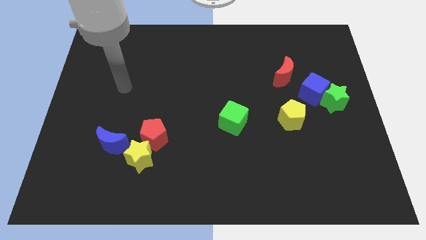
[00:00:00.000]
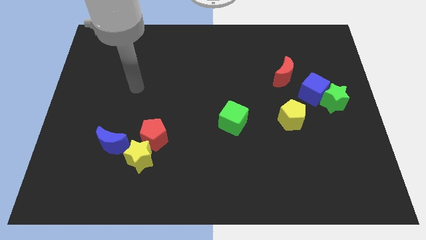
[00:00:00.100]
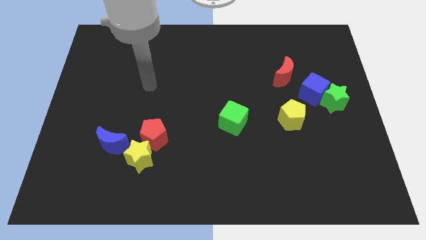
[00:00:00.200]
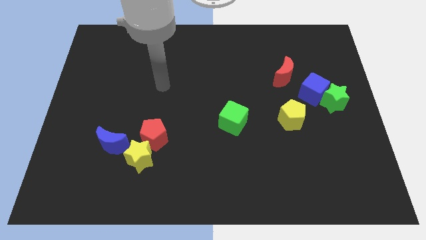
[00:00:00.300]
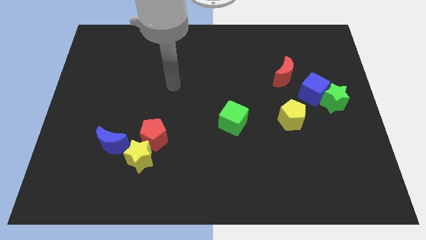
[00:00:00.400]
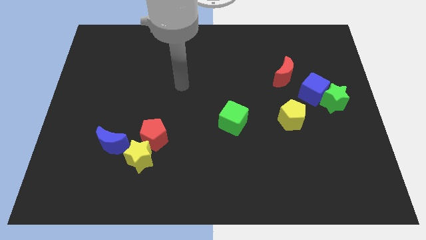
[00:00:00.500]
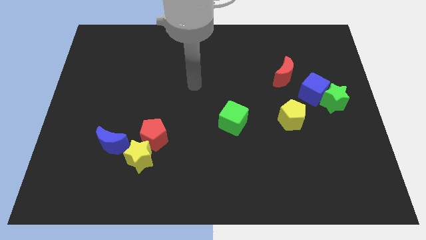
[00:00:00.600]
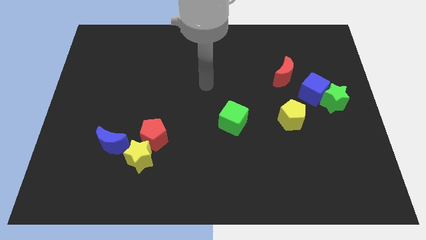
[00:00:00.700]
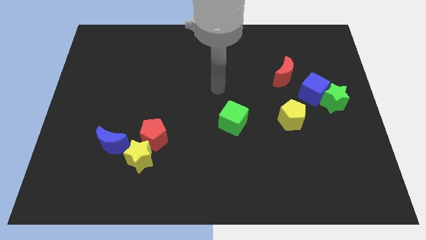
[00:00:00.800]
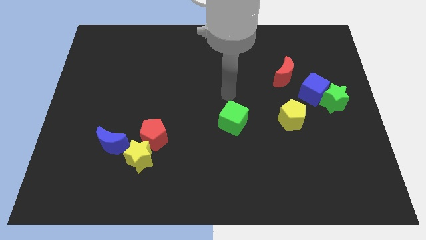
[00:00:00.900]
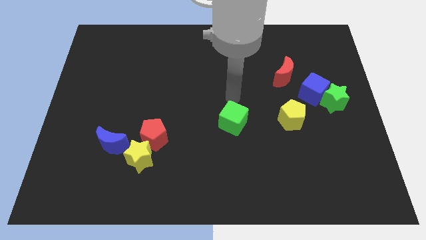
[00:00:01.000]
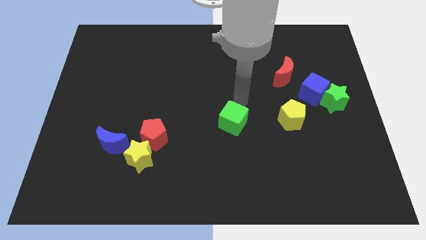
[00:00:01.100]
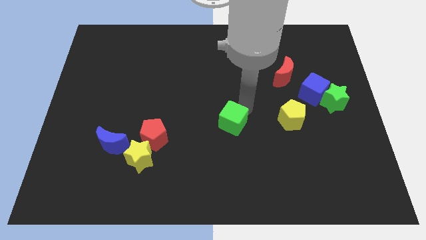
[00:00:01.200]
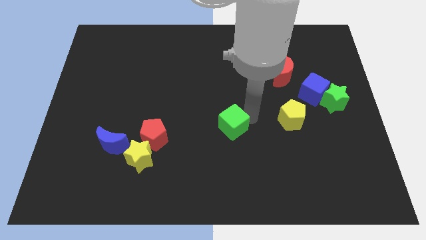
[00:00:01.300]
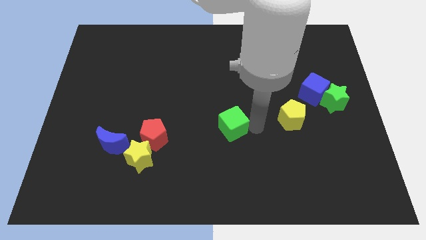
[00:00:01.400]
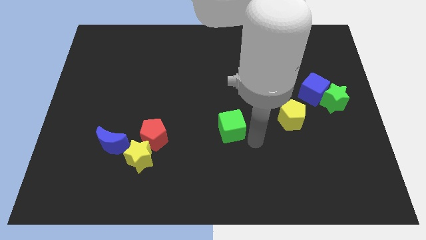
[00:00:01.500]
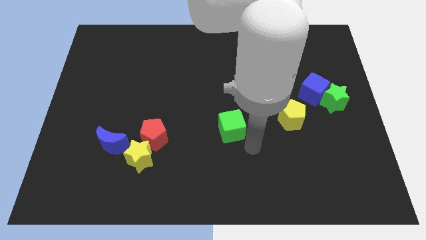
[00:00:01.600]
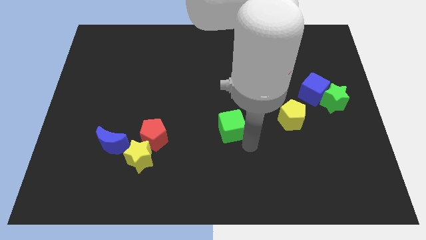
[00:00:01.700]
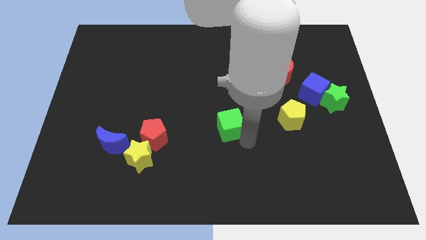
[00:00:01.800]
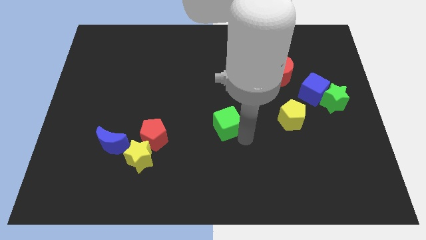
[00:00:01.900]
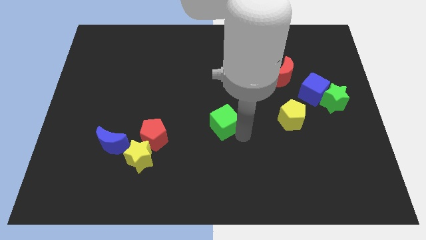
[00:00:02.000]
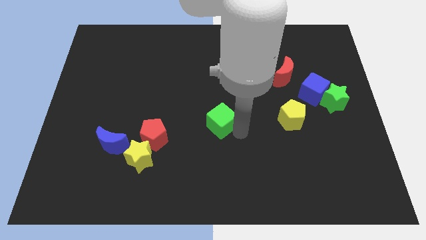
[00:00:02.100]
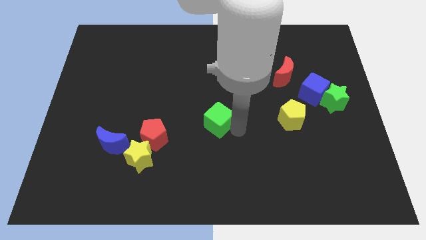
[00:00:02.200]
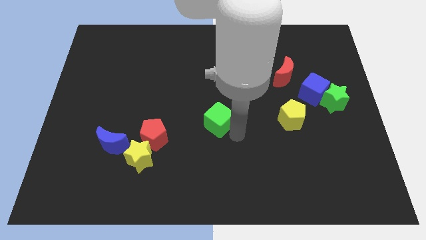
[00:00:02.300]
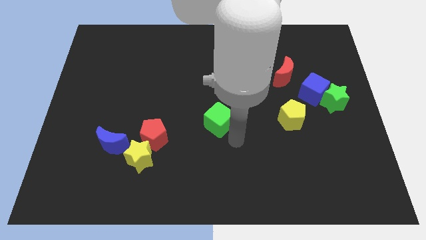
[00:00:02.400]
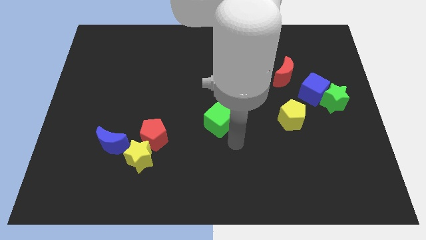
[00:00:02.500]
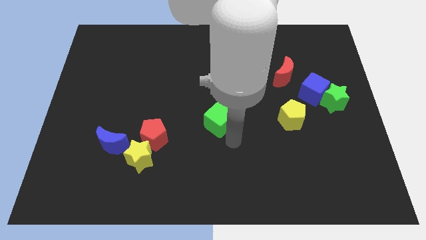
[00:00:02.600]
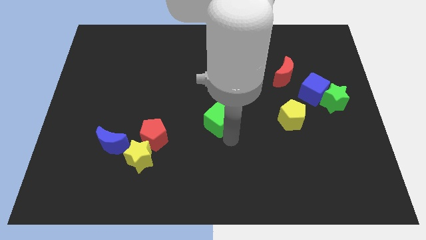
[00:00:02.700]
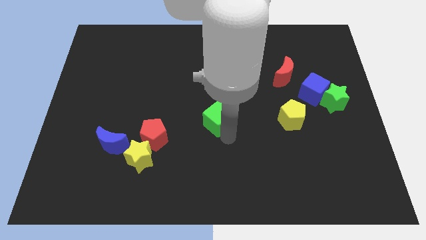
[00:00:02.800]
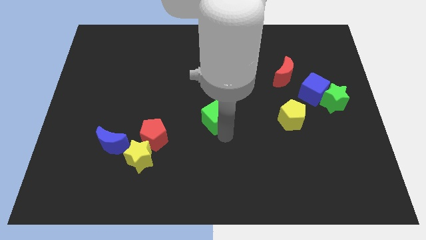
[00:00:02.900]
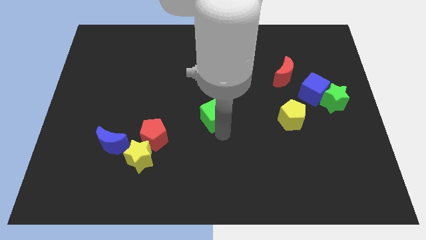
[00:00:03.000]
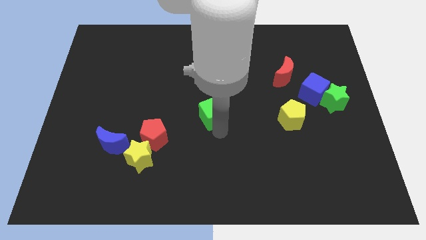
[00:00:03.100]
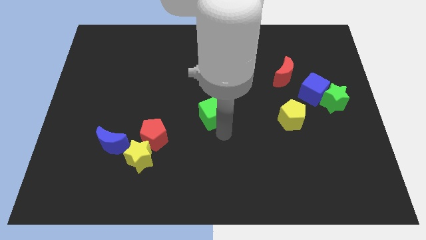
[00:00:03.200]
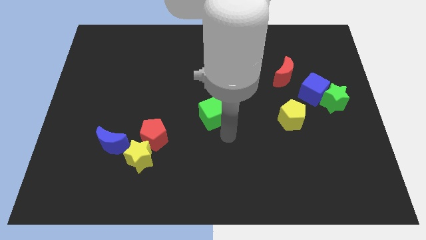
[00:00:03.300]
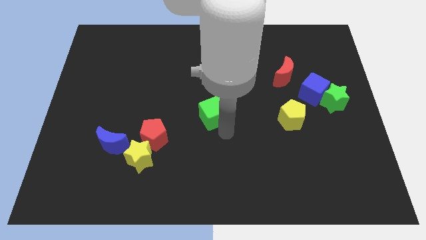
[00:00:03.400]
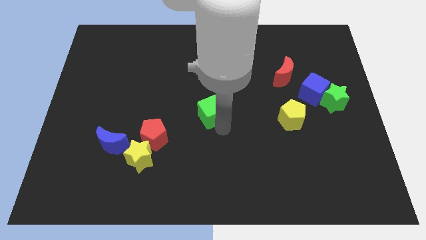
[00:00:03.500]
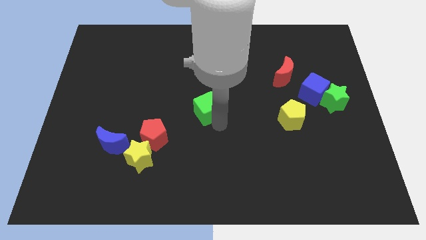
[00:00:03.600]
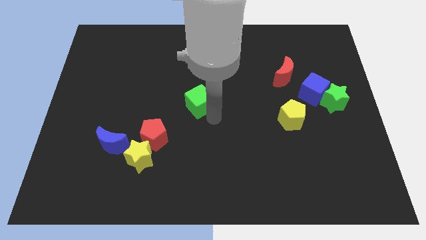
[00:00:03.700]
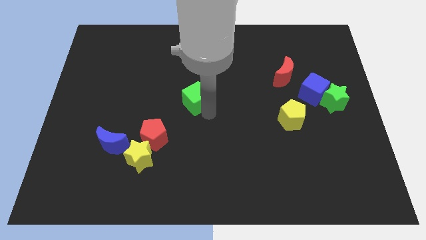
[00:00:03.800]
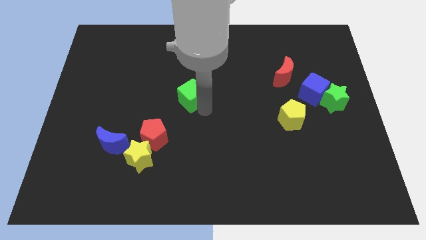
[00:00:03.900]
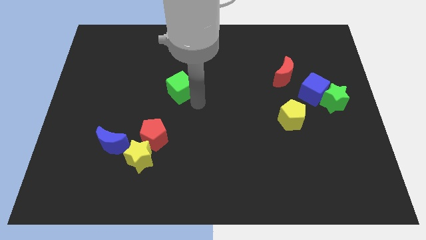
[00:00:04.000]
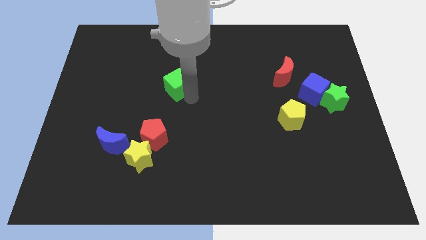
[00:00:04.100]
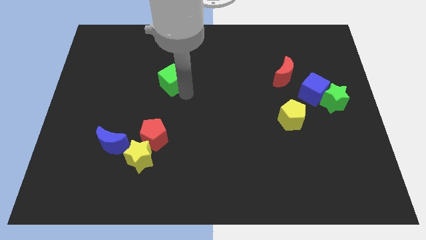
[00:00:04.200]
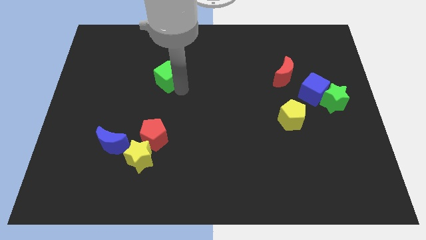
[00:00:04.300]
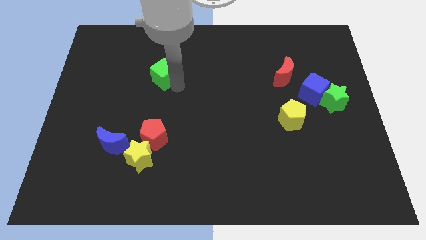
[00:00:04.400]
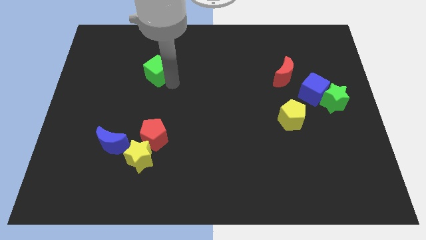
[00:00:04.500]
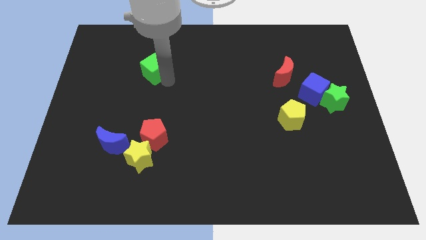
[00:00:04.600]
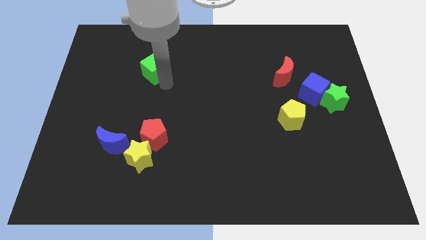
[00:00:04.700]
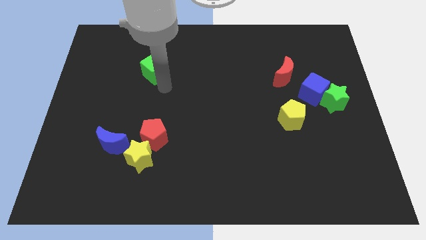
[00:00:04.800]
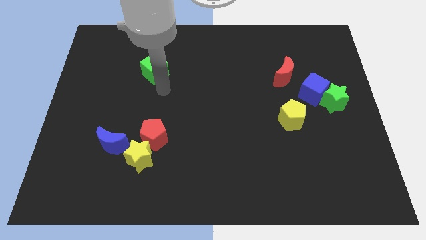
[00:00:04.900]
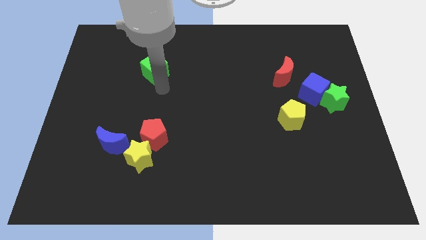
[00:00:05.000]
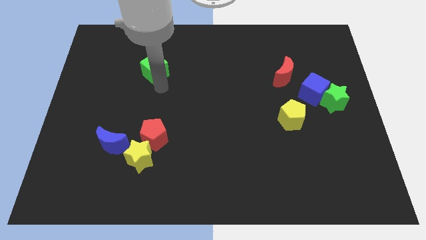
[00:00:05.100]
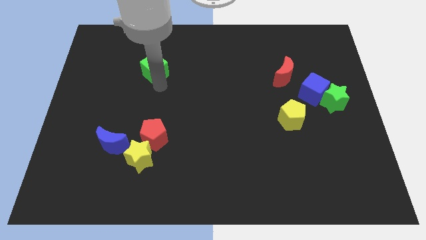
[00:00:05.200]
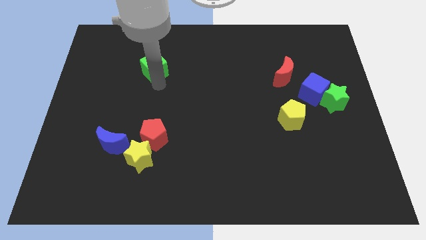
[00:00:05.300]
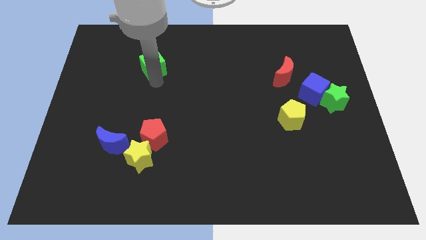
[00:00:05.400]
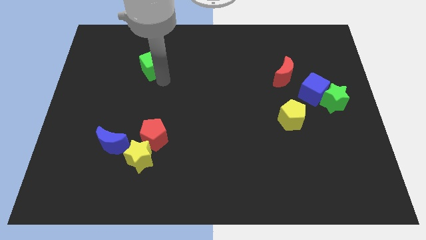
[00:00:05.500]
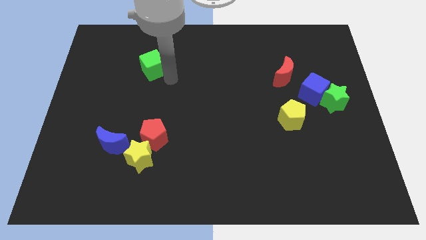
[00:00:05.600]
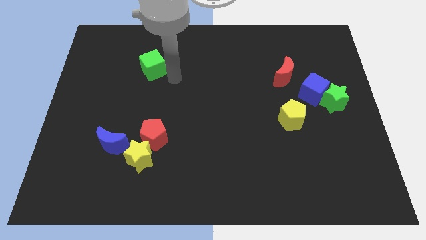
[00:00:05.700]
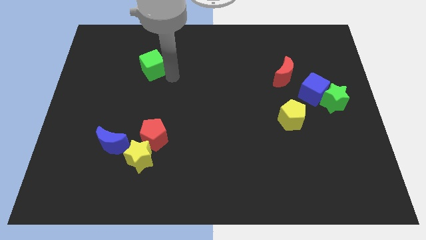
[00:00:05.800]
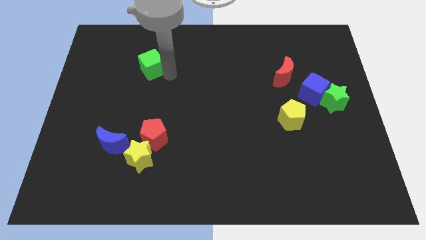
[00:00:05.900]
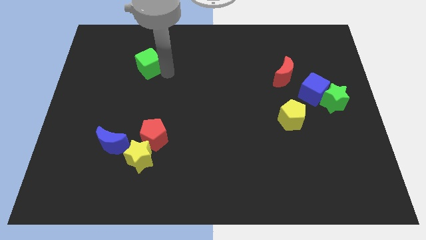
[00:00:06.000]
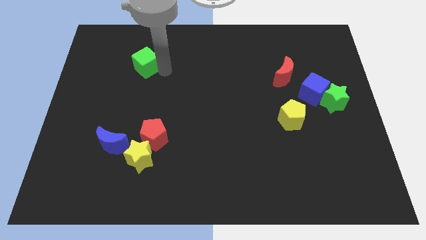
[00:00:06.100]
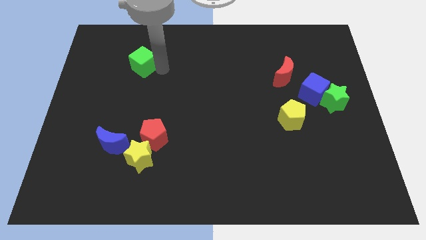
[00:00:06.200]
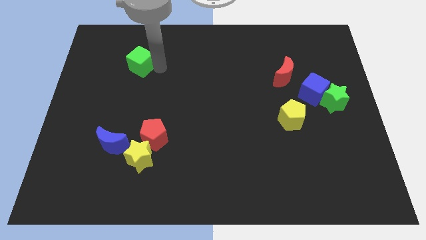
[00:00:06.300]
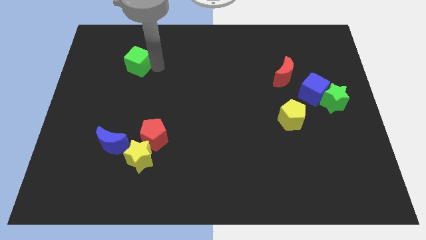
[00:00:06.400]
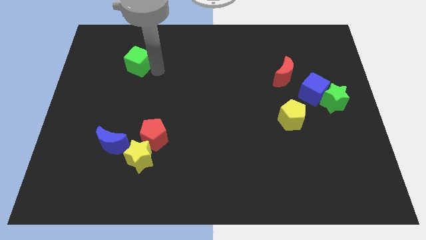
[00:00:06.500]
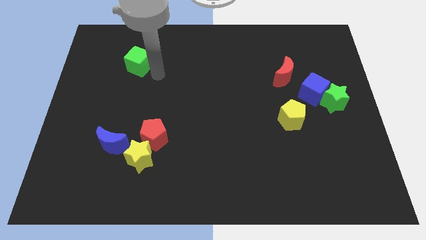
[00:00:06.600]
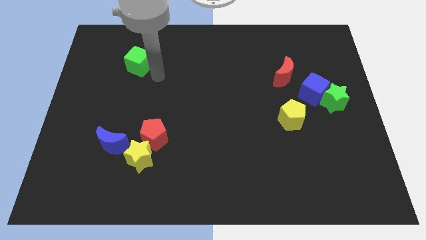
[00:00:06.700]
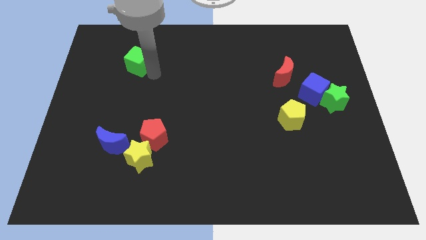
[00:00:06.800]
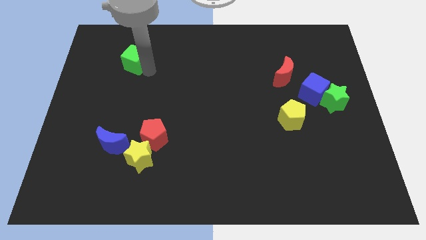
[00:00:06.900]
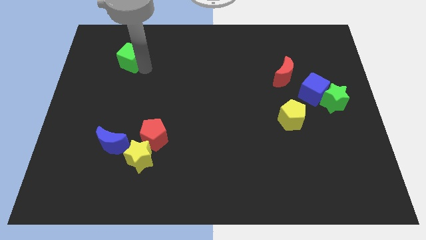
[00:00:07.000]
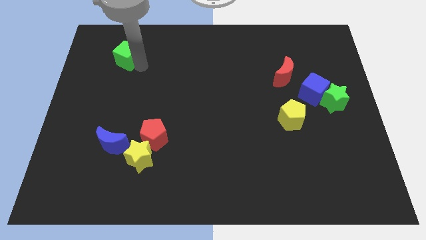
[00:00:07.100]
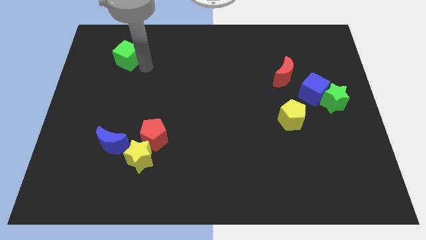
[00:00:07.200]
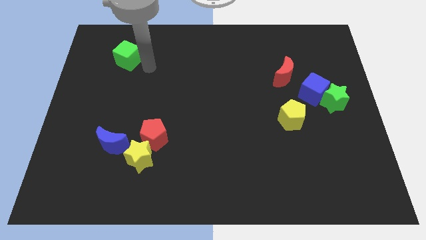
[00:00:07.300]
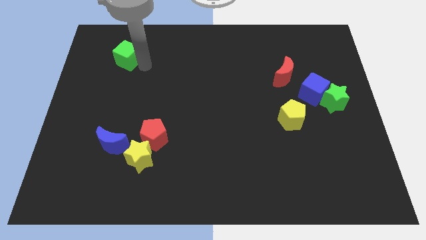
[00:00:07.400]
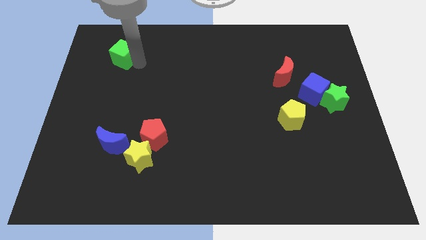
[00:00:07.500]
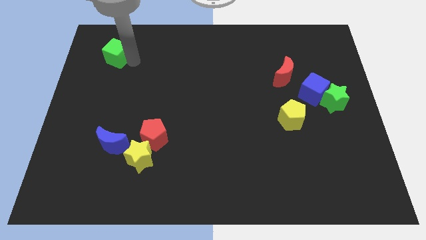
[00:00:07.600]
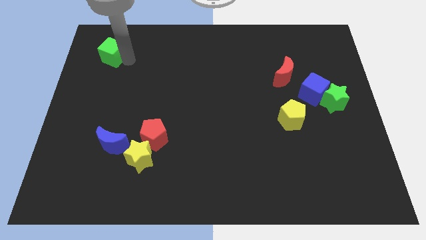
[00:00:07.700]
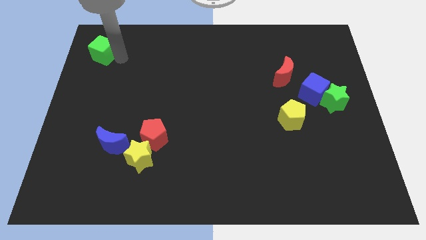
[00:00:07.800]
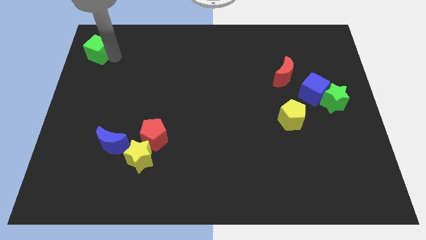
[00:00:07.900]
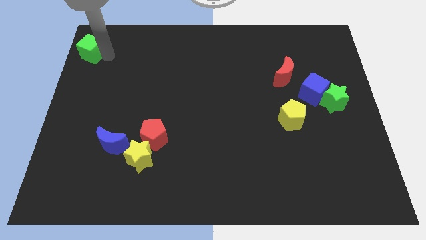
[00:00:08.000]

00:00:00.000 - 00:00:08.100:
push the green cube to the upper left corner
